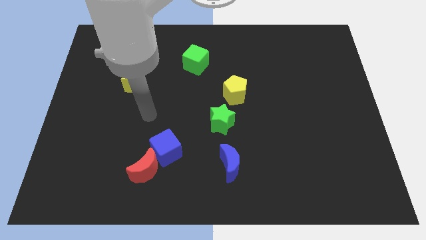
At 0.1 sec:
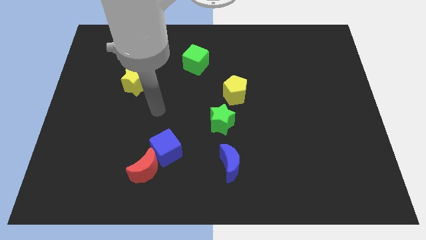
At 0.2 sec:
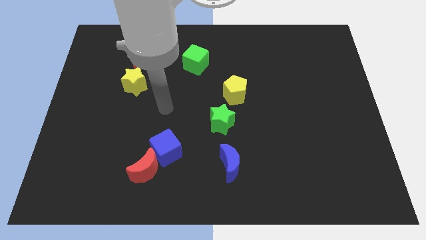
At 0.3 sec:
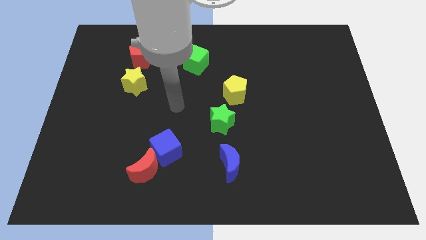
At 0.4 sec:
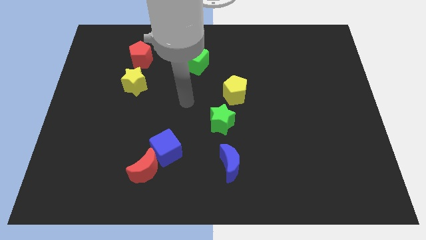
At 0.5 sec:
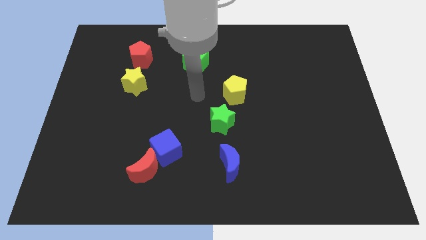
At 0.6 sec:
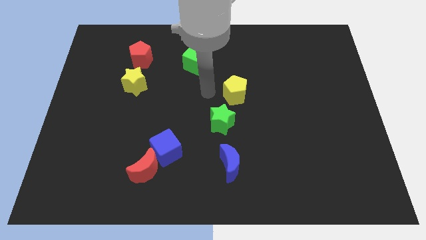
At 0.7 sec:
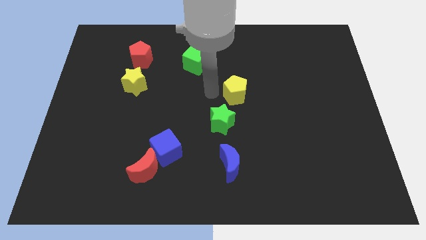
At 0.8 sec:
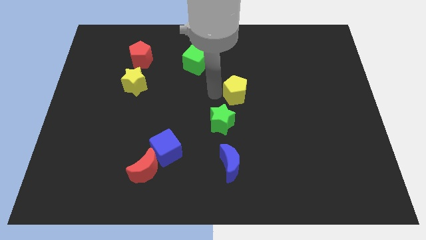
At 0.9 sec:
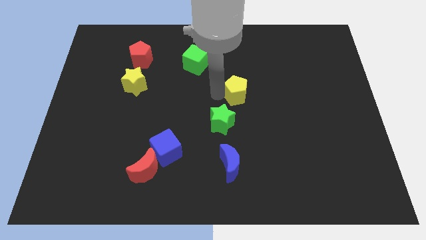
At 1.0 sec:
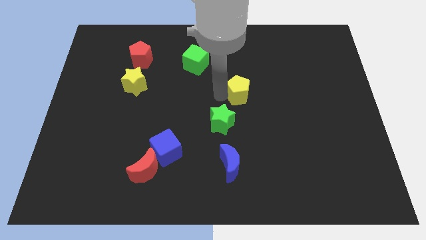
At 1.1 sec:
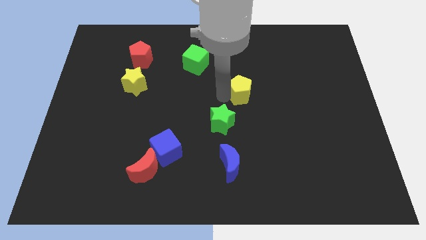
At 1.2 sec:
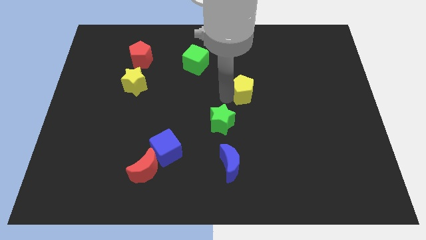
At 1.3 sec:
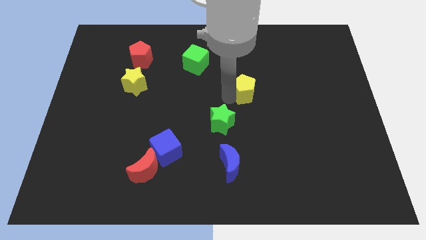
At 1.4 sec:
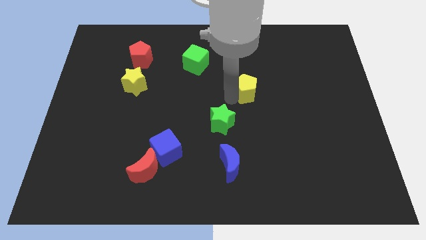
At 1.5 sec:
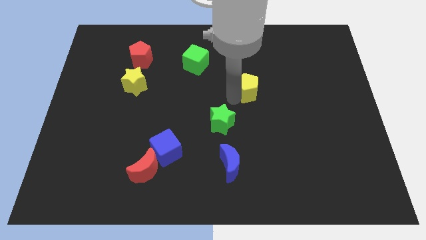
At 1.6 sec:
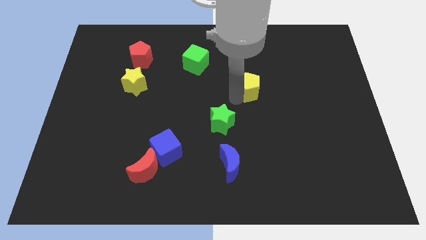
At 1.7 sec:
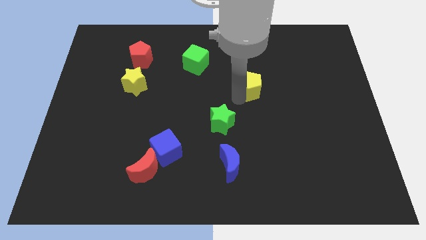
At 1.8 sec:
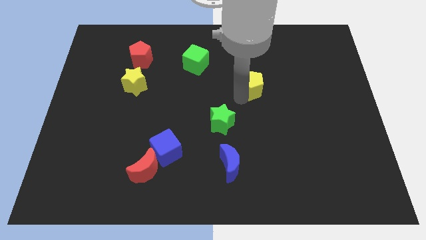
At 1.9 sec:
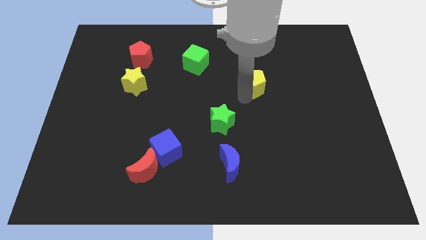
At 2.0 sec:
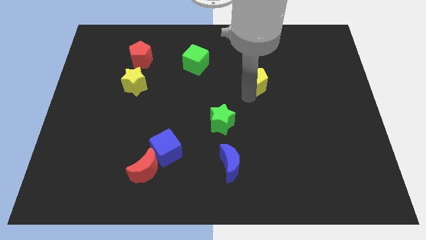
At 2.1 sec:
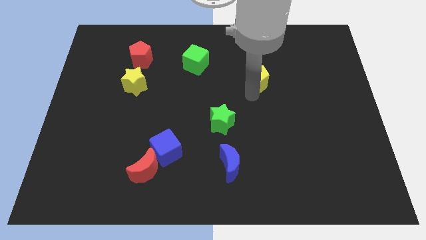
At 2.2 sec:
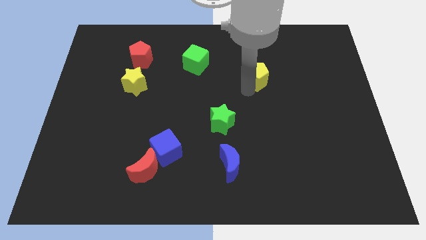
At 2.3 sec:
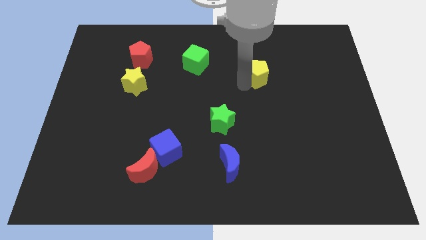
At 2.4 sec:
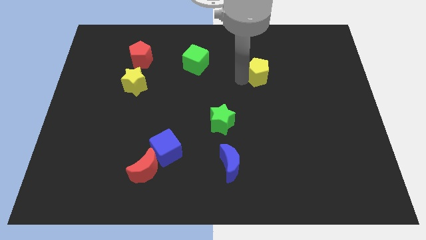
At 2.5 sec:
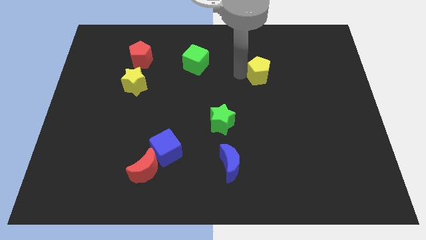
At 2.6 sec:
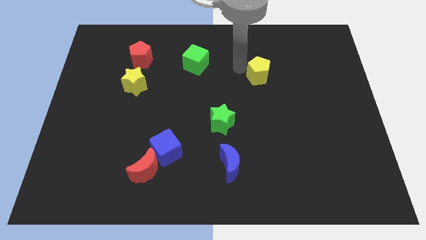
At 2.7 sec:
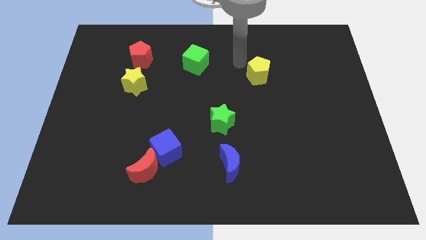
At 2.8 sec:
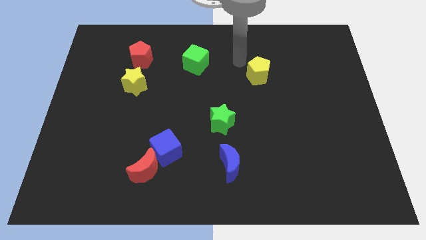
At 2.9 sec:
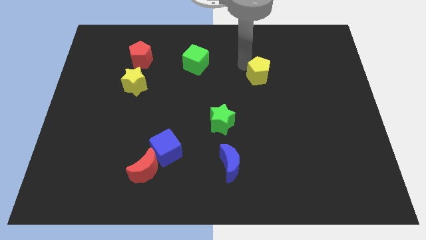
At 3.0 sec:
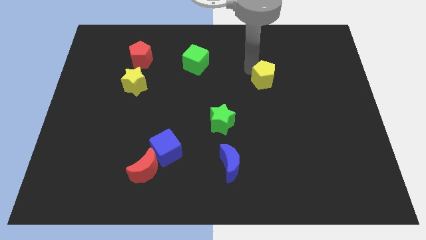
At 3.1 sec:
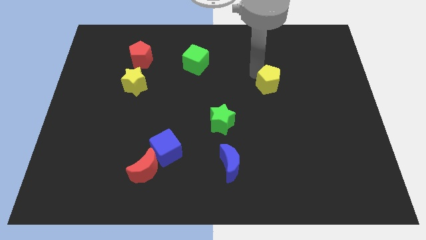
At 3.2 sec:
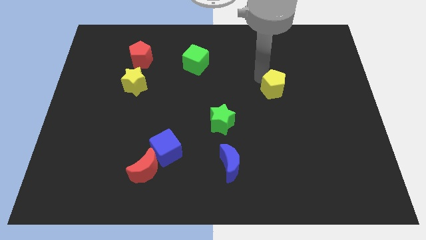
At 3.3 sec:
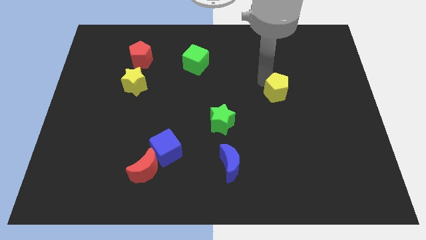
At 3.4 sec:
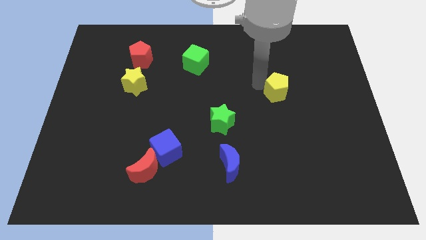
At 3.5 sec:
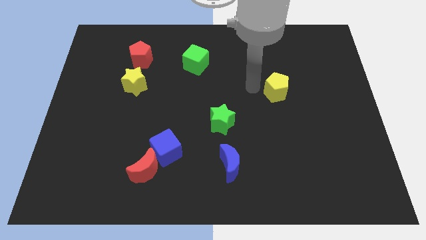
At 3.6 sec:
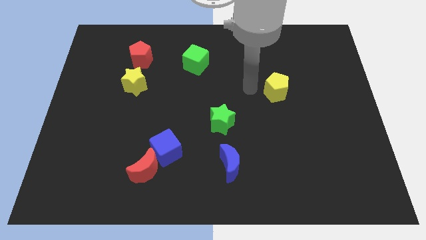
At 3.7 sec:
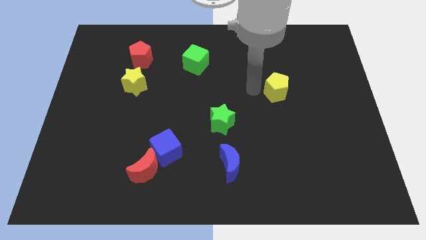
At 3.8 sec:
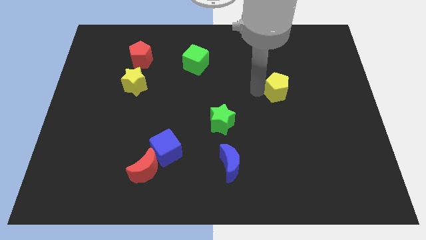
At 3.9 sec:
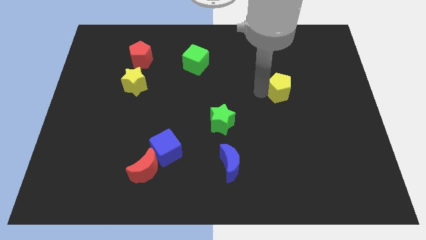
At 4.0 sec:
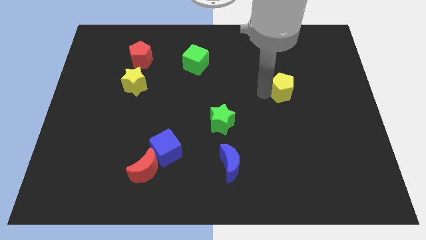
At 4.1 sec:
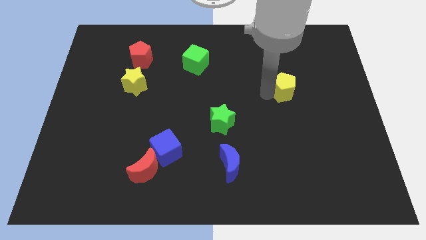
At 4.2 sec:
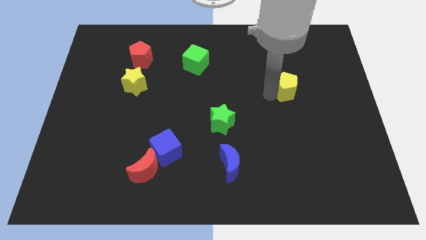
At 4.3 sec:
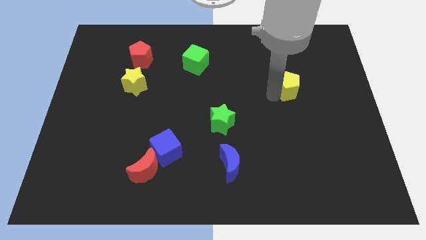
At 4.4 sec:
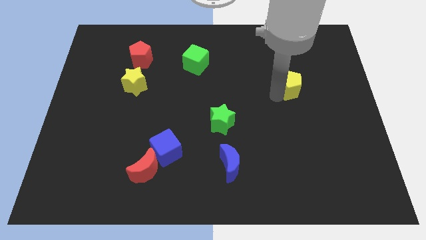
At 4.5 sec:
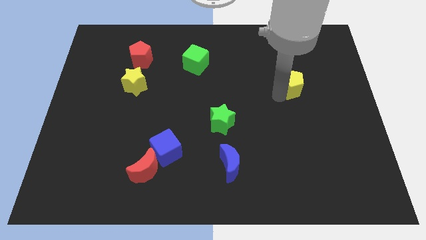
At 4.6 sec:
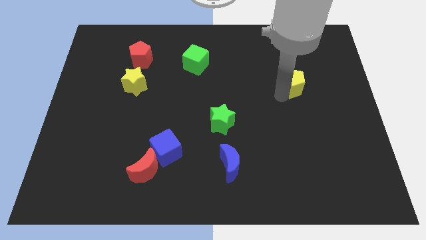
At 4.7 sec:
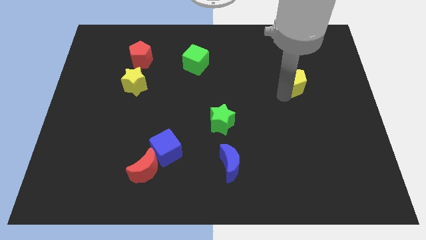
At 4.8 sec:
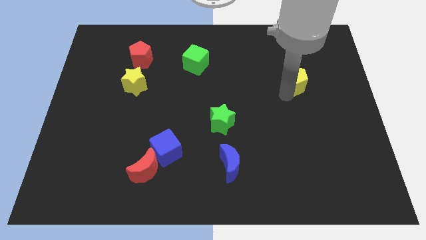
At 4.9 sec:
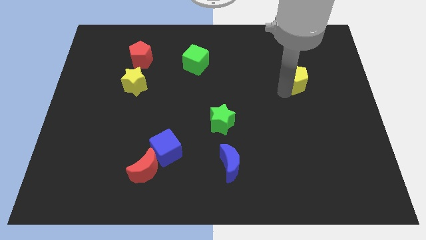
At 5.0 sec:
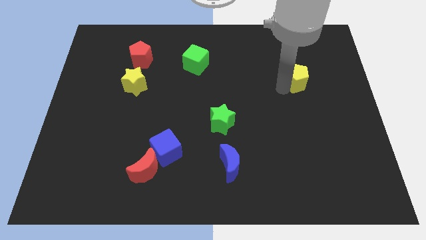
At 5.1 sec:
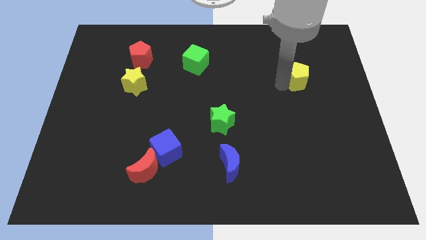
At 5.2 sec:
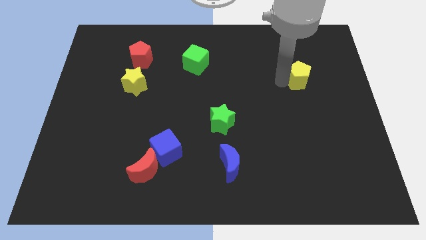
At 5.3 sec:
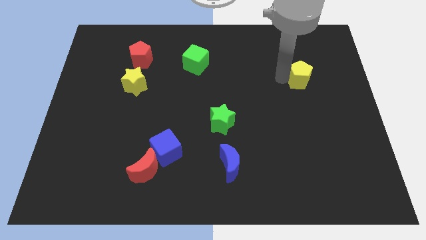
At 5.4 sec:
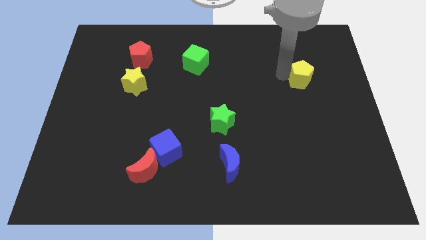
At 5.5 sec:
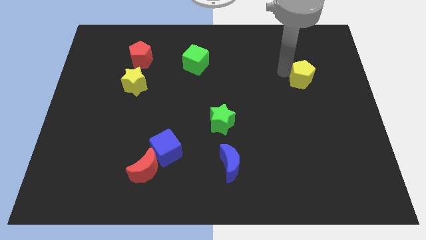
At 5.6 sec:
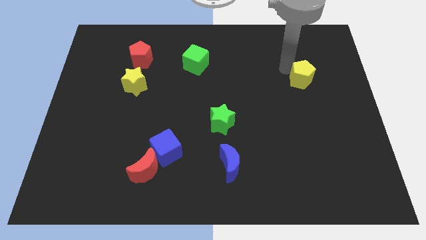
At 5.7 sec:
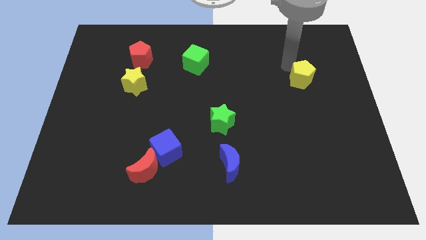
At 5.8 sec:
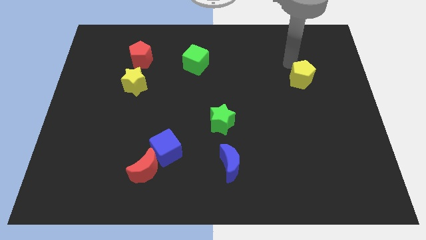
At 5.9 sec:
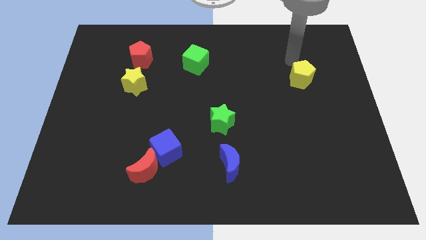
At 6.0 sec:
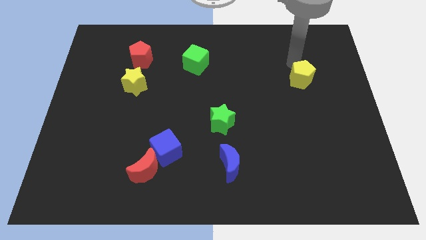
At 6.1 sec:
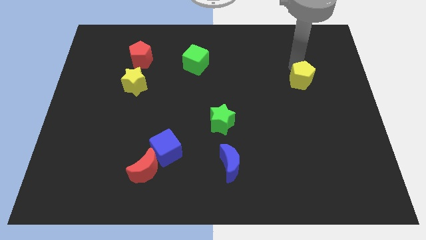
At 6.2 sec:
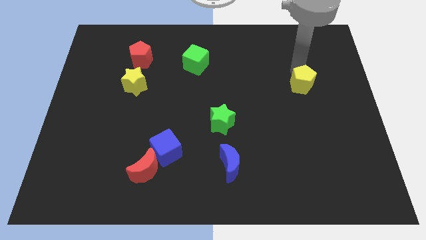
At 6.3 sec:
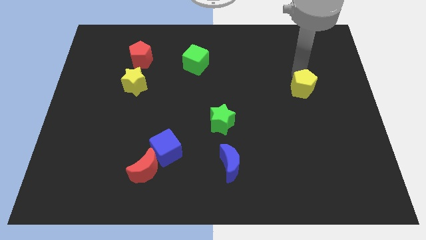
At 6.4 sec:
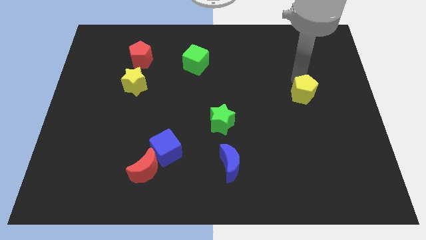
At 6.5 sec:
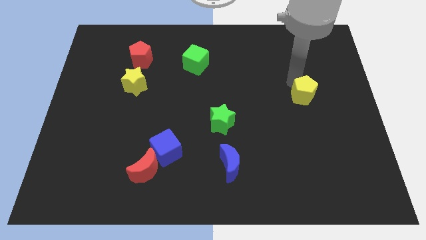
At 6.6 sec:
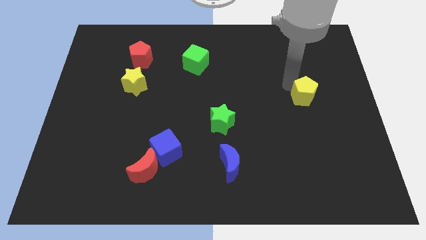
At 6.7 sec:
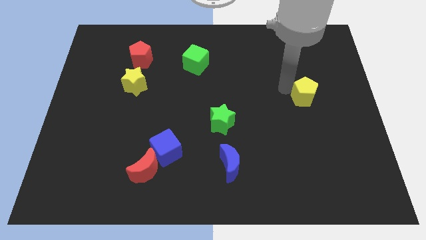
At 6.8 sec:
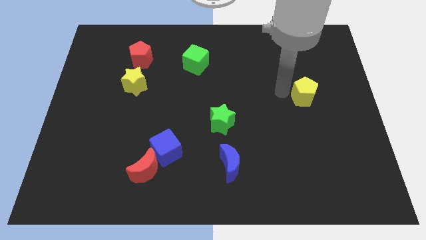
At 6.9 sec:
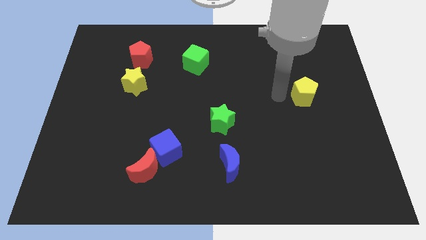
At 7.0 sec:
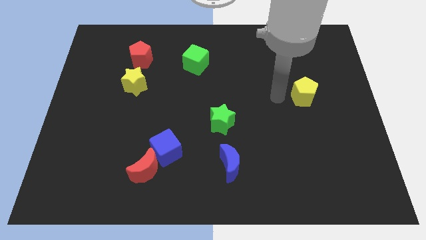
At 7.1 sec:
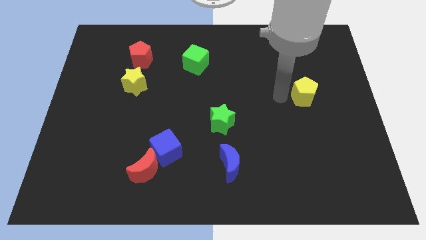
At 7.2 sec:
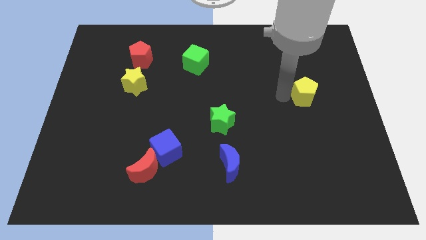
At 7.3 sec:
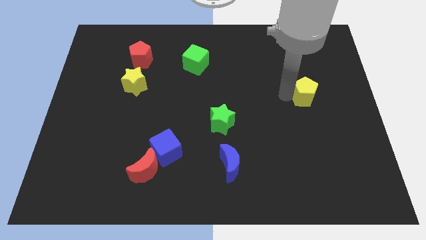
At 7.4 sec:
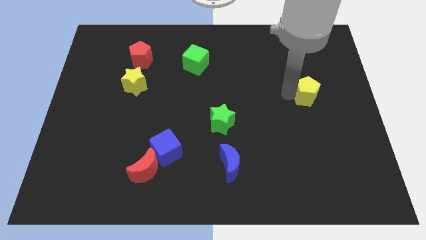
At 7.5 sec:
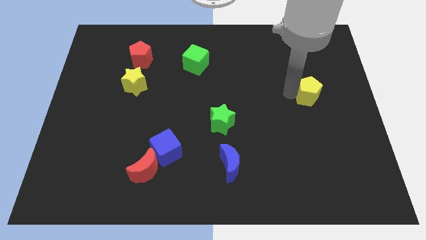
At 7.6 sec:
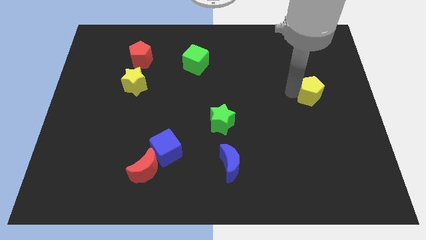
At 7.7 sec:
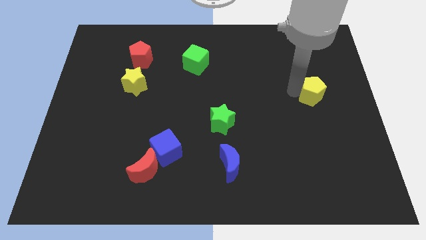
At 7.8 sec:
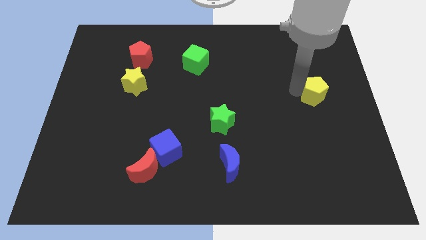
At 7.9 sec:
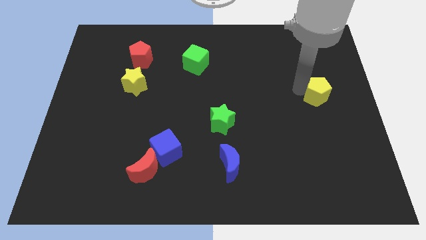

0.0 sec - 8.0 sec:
put the yellow pentagon to the right side of the board
